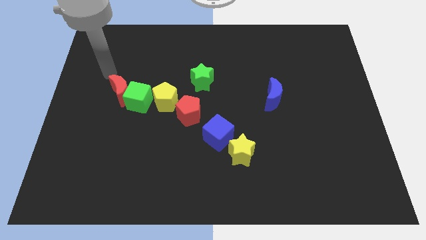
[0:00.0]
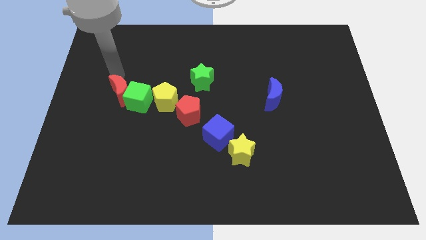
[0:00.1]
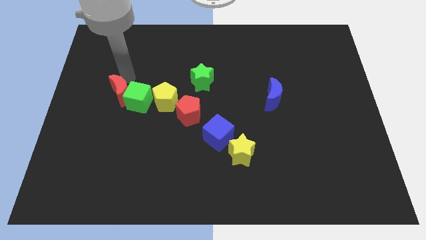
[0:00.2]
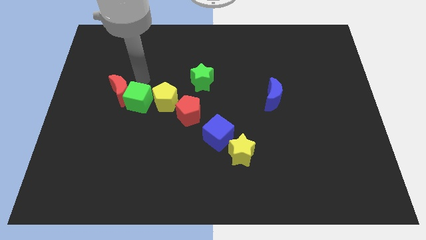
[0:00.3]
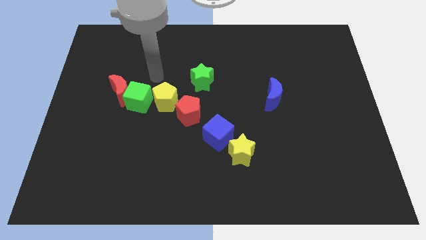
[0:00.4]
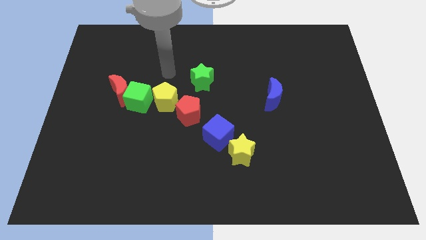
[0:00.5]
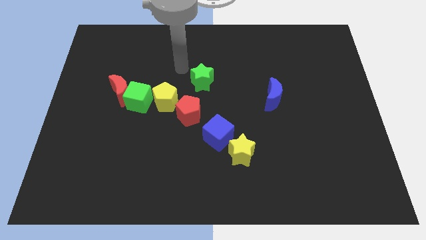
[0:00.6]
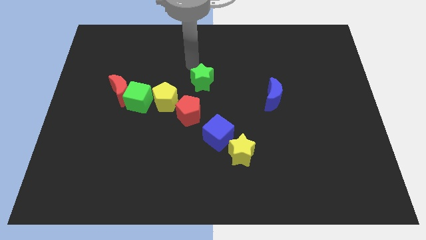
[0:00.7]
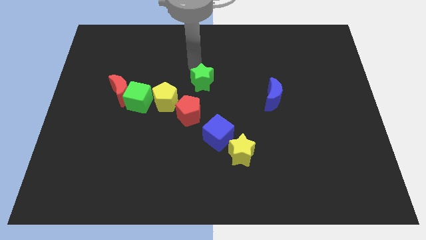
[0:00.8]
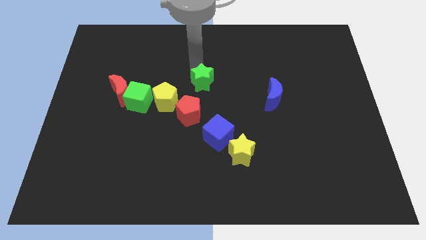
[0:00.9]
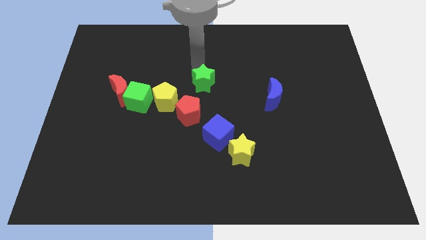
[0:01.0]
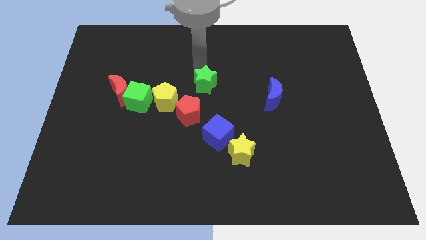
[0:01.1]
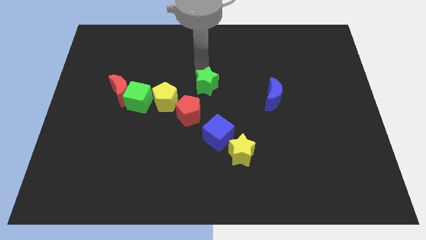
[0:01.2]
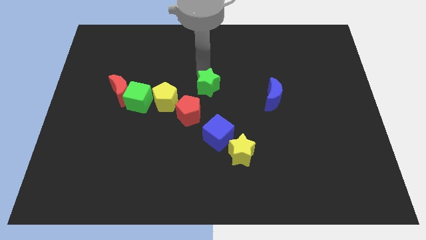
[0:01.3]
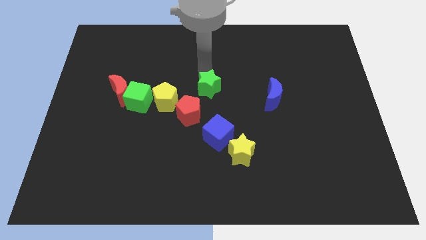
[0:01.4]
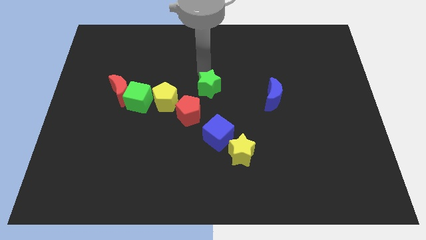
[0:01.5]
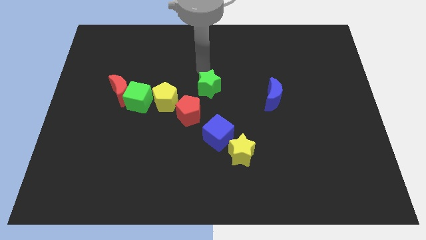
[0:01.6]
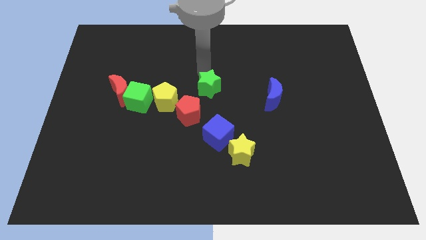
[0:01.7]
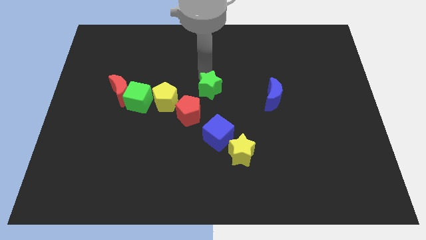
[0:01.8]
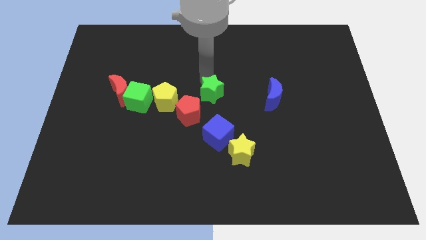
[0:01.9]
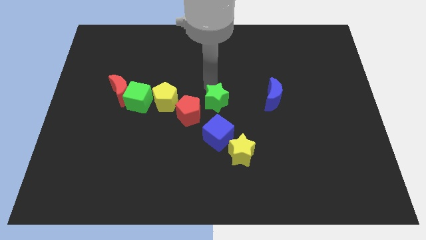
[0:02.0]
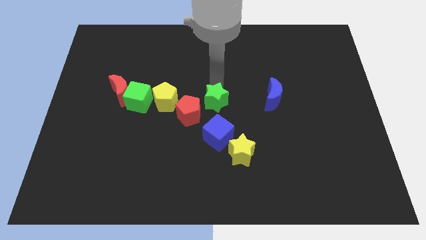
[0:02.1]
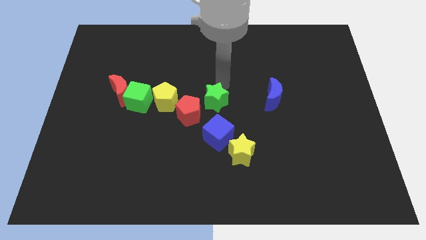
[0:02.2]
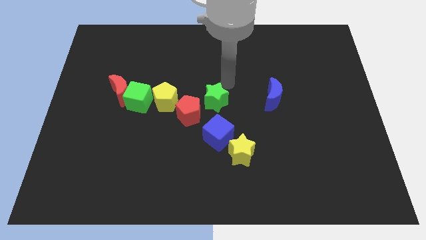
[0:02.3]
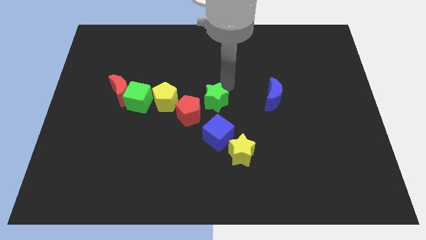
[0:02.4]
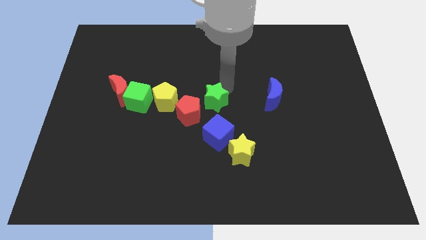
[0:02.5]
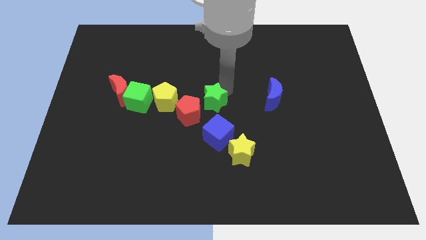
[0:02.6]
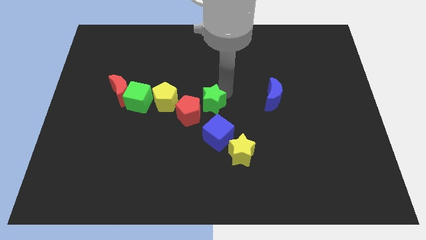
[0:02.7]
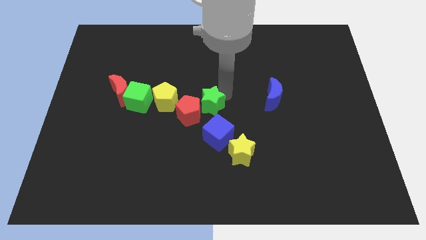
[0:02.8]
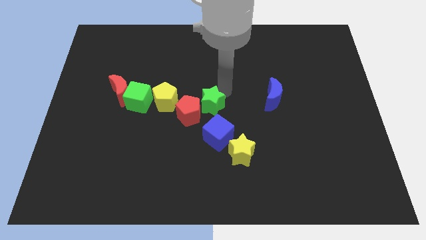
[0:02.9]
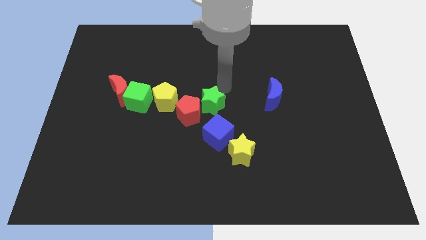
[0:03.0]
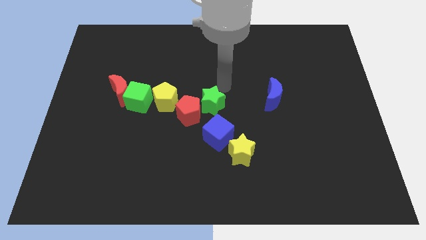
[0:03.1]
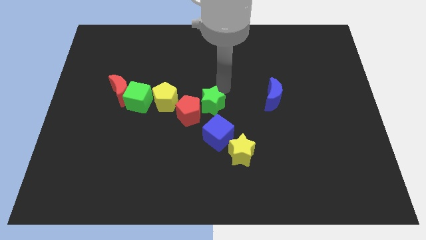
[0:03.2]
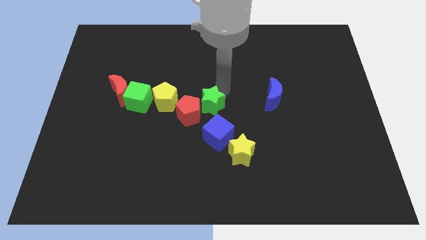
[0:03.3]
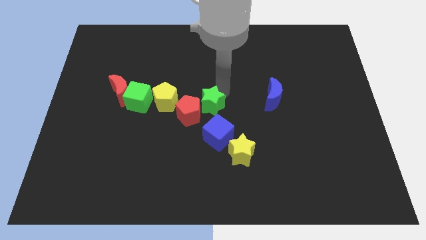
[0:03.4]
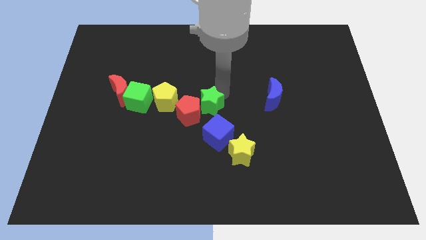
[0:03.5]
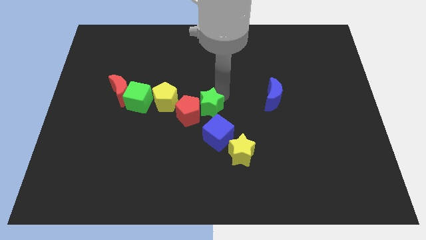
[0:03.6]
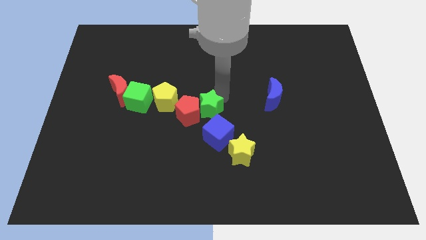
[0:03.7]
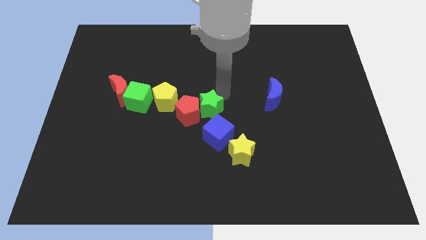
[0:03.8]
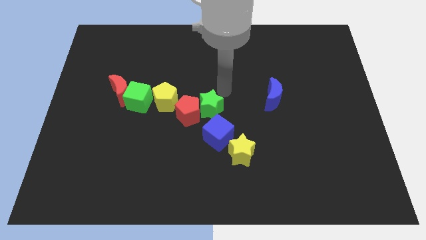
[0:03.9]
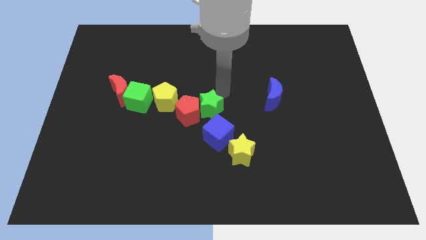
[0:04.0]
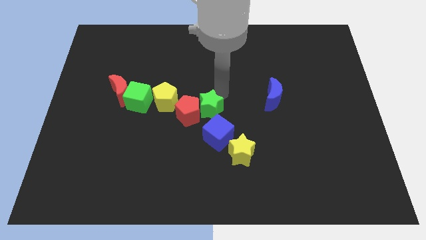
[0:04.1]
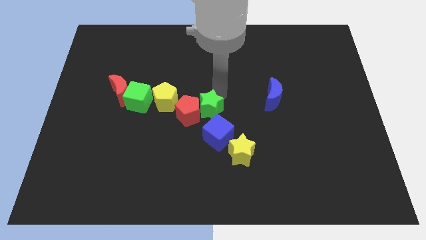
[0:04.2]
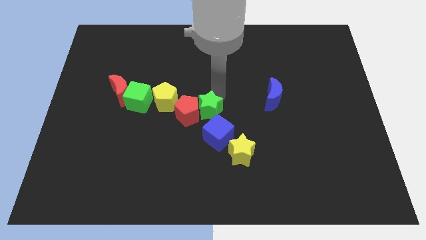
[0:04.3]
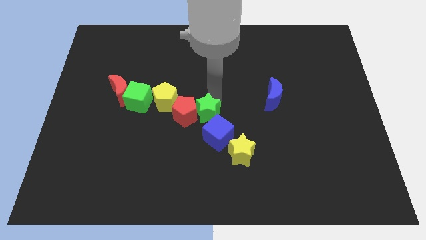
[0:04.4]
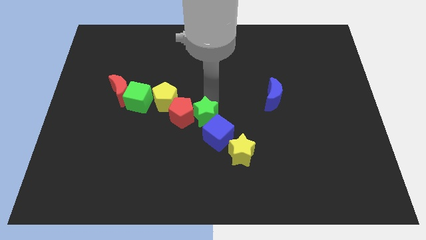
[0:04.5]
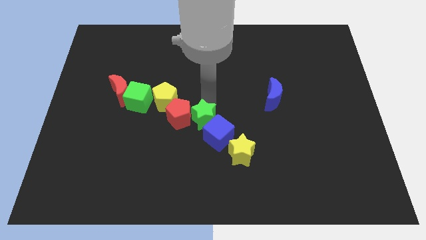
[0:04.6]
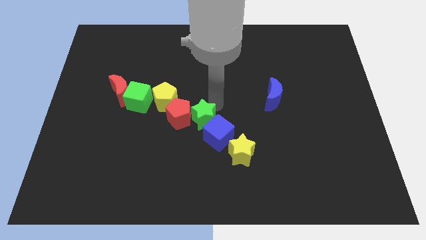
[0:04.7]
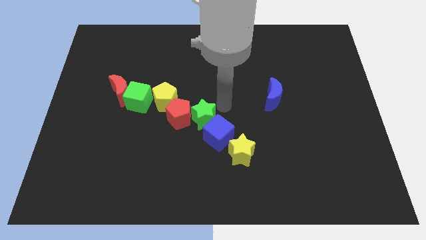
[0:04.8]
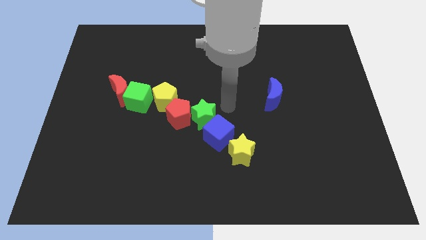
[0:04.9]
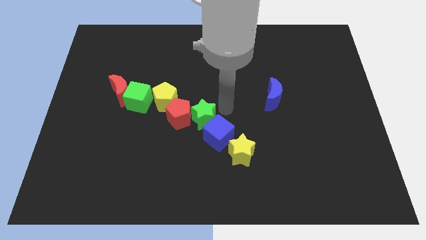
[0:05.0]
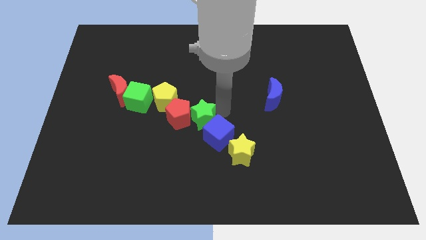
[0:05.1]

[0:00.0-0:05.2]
push the green star left of the blue cube

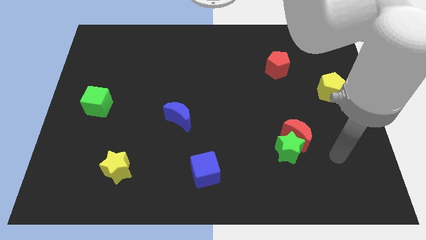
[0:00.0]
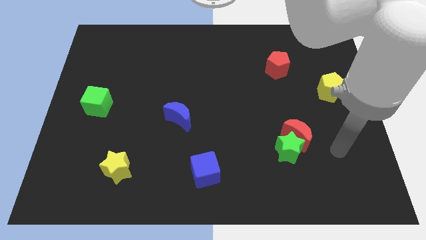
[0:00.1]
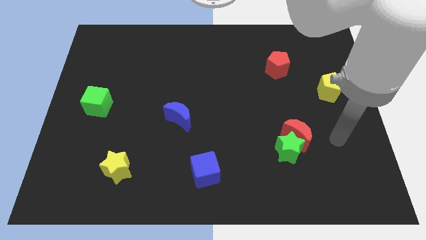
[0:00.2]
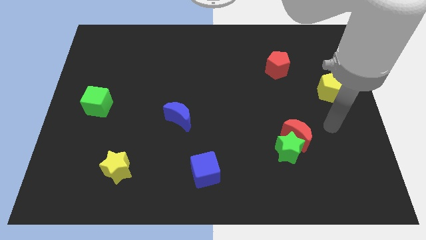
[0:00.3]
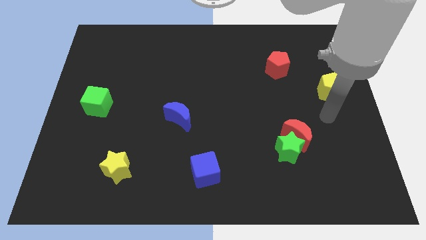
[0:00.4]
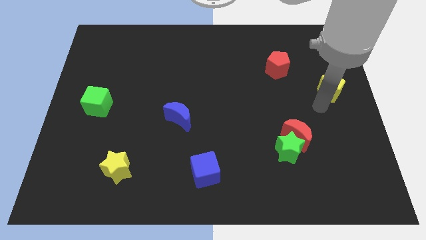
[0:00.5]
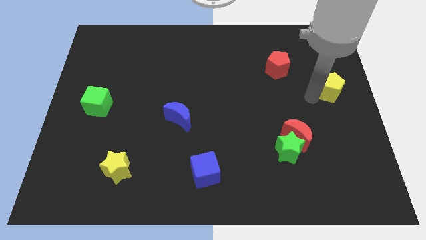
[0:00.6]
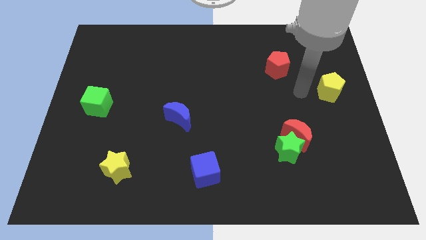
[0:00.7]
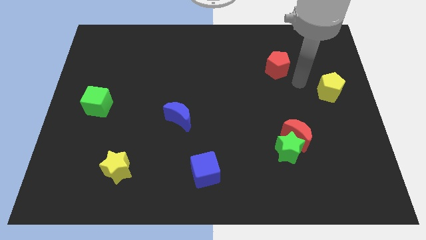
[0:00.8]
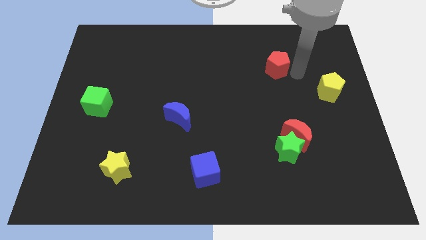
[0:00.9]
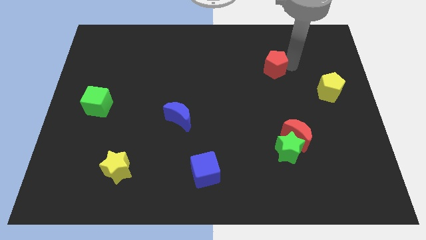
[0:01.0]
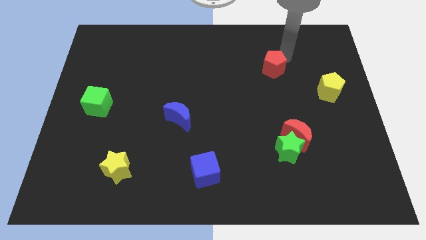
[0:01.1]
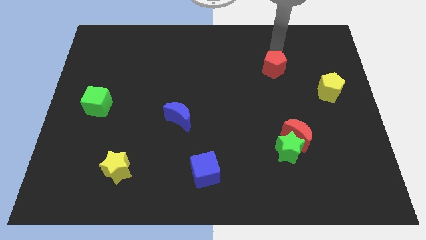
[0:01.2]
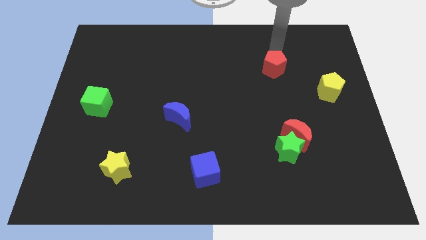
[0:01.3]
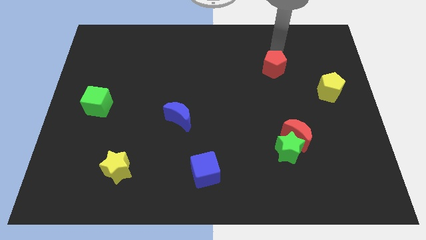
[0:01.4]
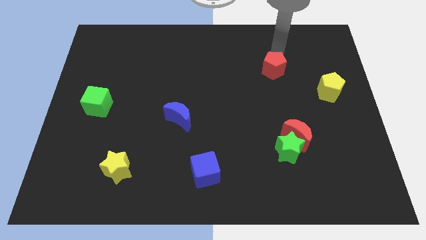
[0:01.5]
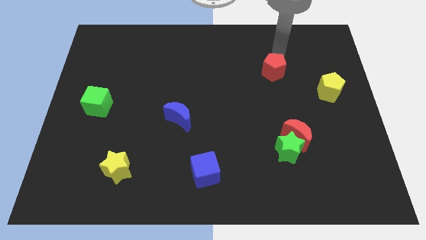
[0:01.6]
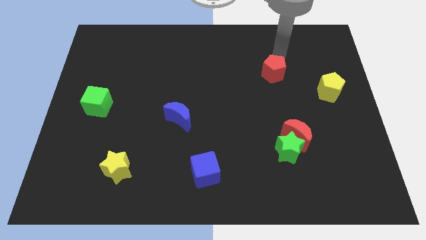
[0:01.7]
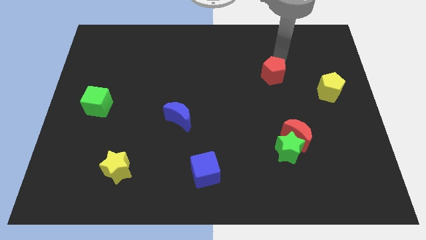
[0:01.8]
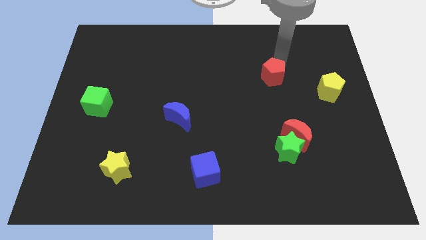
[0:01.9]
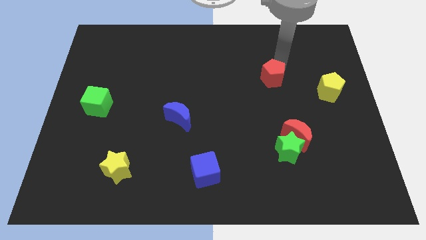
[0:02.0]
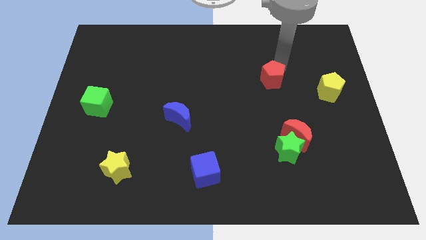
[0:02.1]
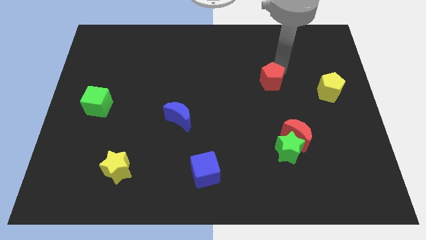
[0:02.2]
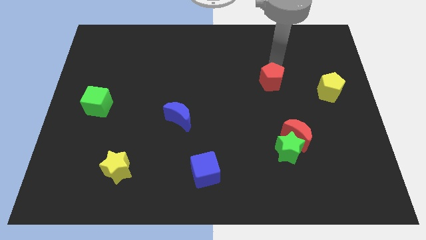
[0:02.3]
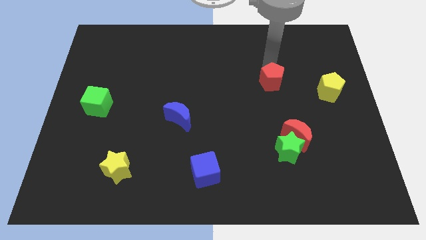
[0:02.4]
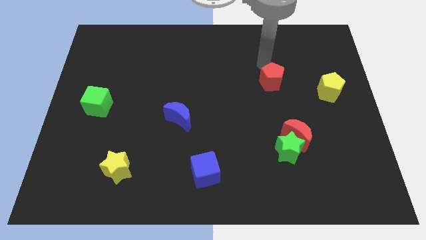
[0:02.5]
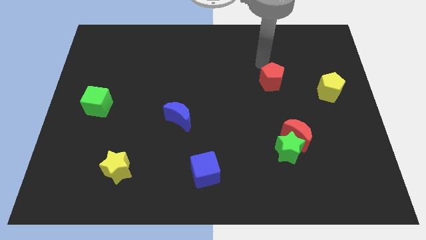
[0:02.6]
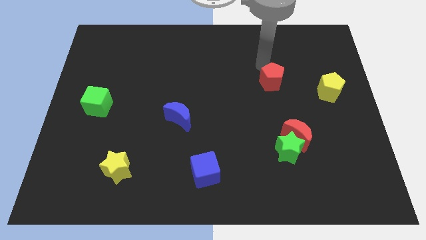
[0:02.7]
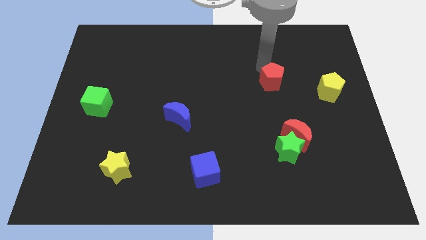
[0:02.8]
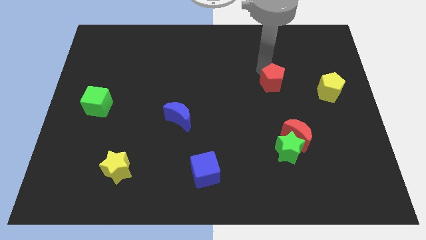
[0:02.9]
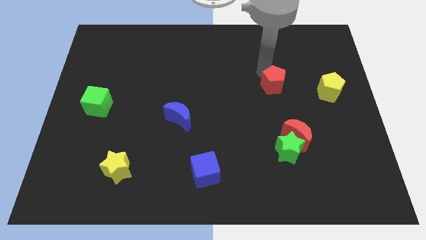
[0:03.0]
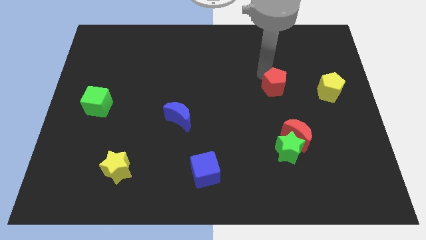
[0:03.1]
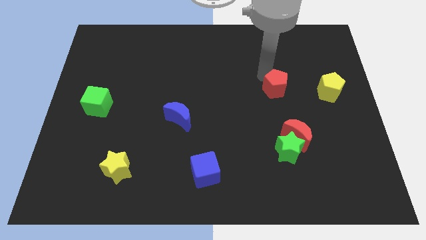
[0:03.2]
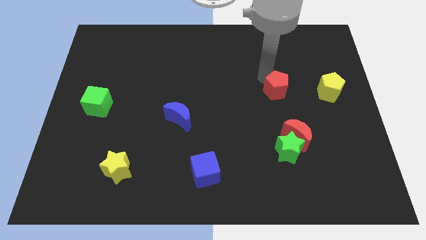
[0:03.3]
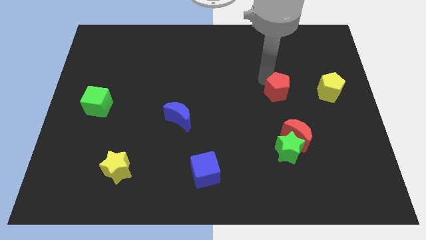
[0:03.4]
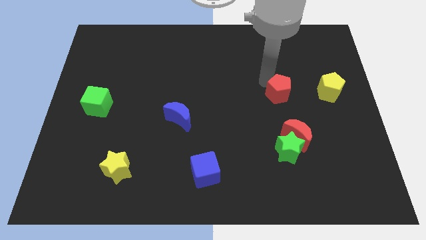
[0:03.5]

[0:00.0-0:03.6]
push the red pentagon to the top side of the green star
